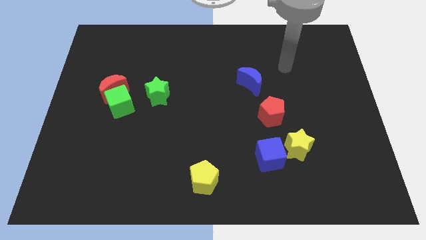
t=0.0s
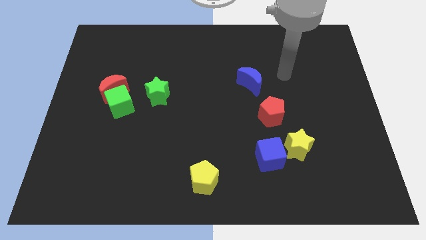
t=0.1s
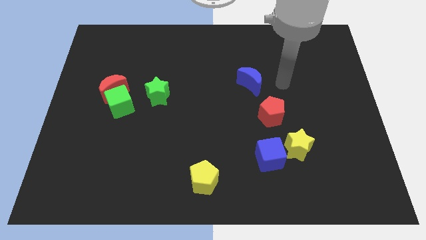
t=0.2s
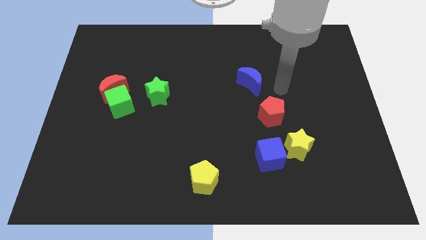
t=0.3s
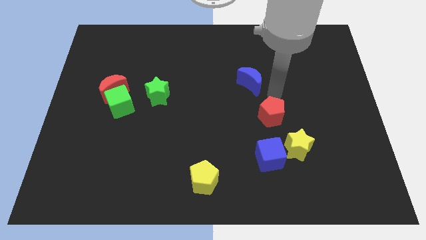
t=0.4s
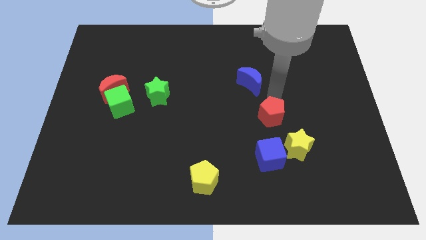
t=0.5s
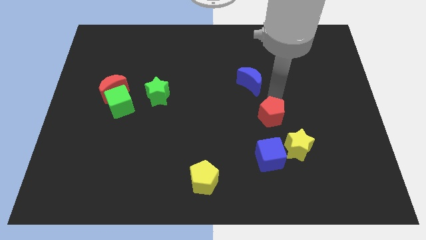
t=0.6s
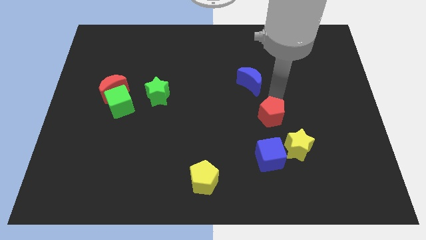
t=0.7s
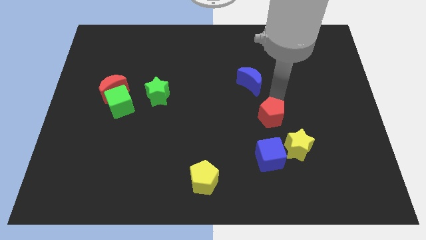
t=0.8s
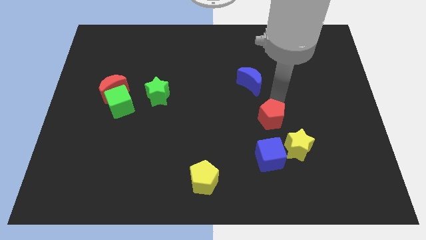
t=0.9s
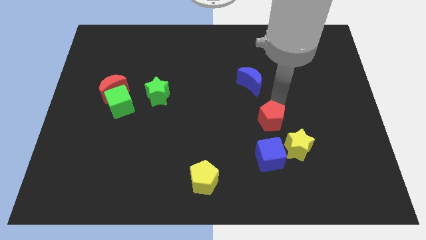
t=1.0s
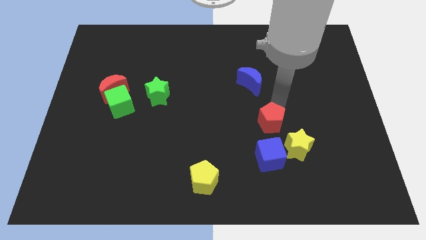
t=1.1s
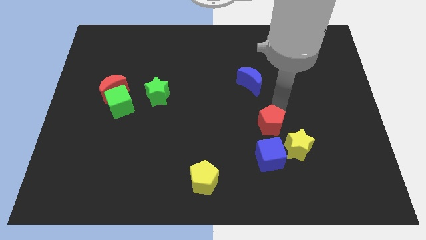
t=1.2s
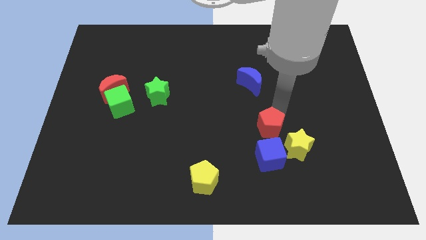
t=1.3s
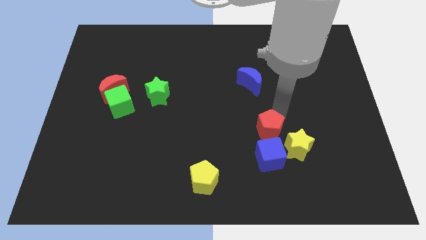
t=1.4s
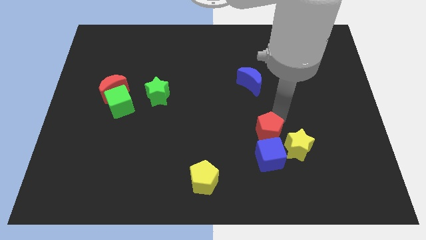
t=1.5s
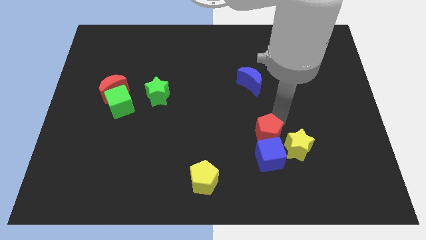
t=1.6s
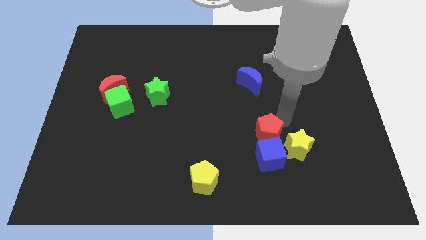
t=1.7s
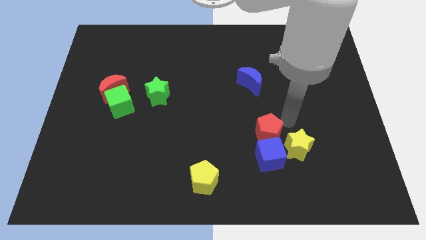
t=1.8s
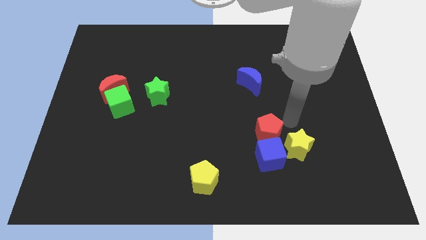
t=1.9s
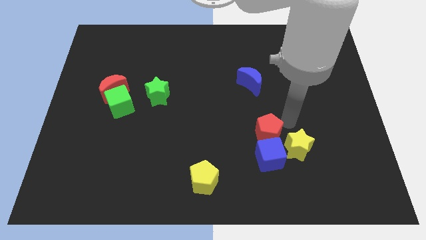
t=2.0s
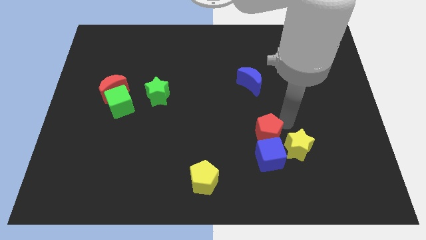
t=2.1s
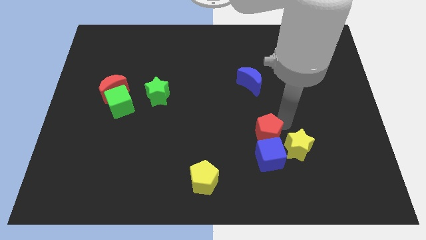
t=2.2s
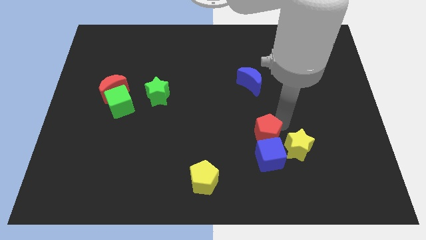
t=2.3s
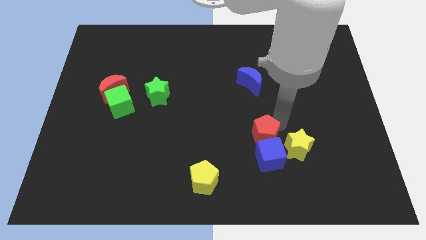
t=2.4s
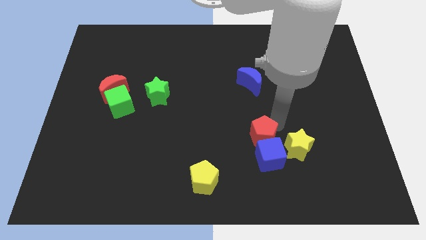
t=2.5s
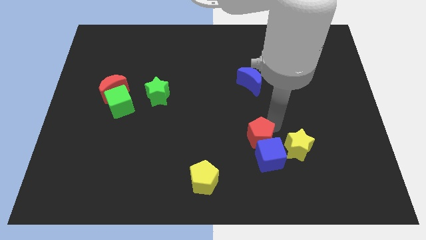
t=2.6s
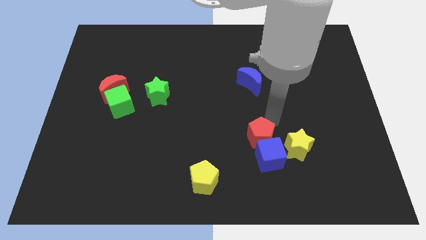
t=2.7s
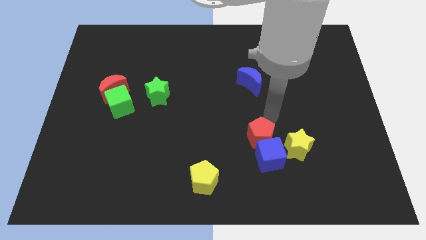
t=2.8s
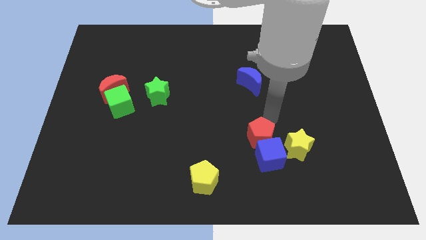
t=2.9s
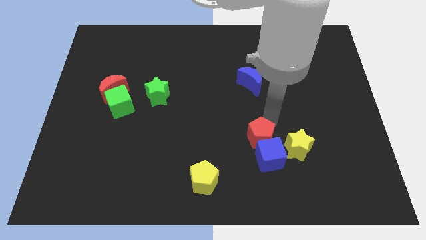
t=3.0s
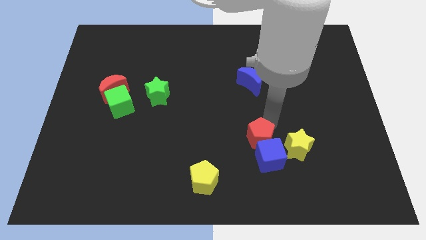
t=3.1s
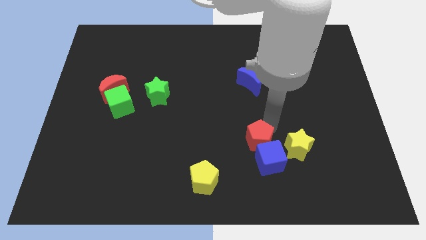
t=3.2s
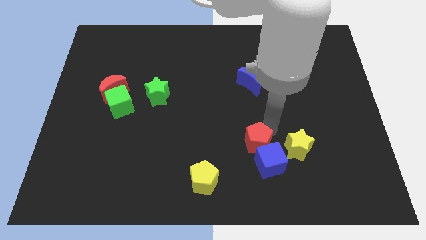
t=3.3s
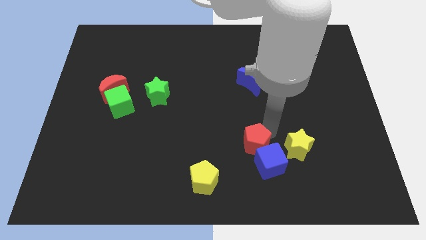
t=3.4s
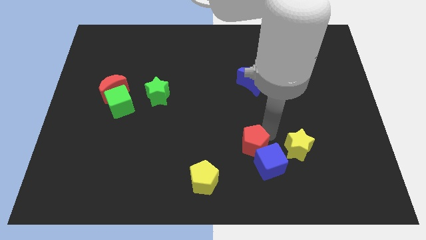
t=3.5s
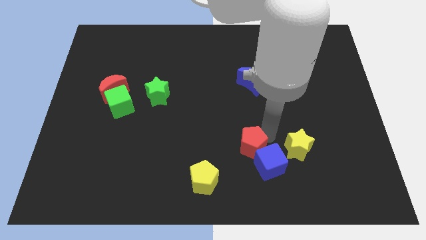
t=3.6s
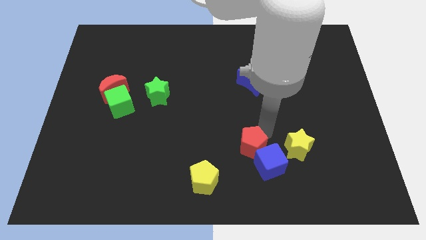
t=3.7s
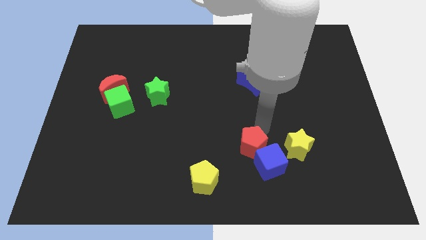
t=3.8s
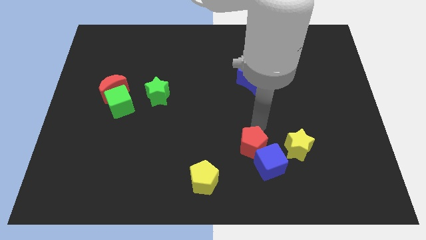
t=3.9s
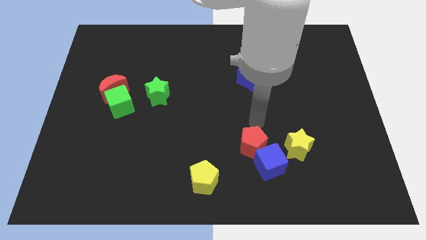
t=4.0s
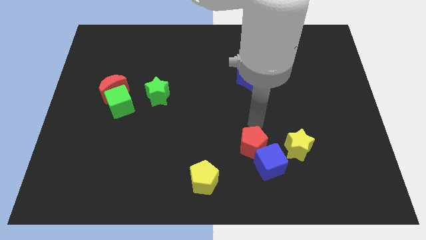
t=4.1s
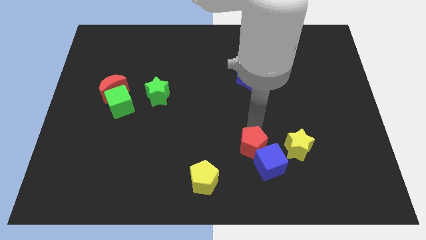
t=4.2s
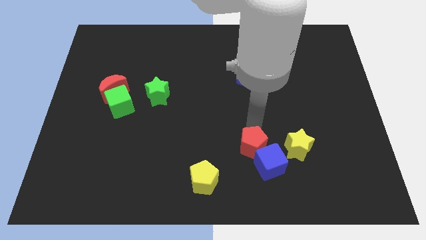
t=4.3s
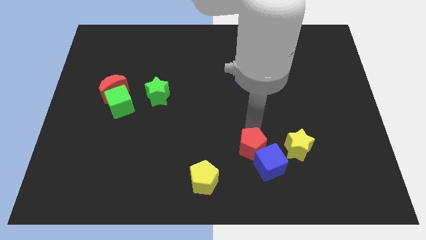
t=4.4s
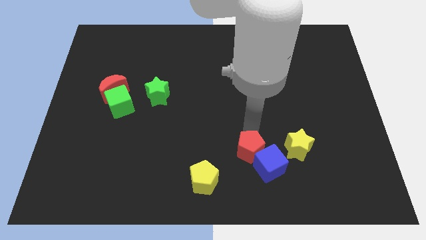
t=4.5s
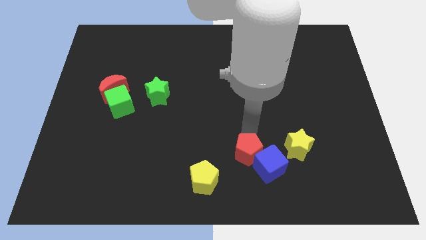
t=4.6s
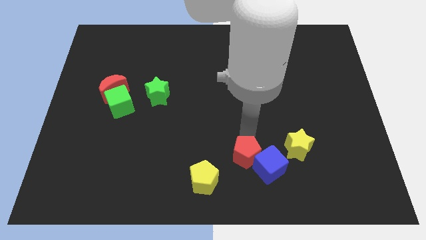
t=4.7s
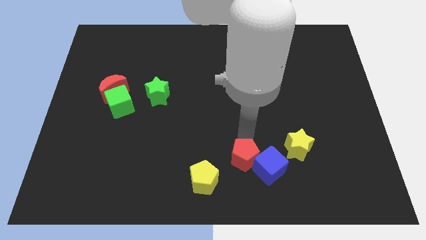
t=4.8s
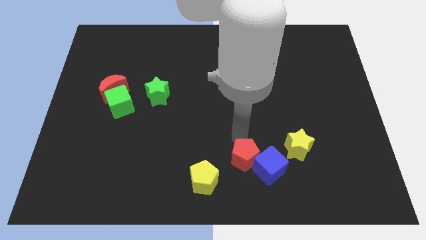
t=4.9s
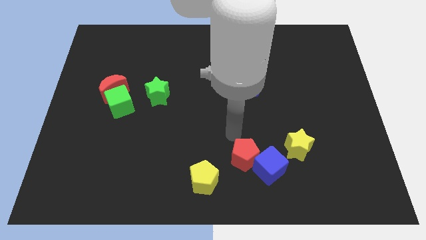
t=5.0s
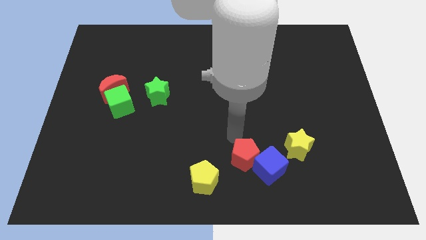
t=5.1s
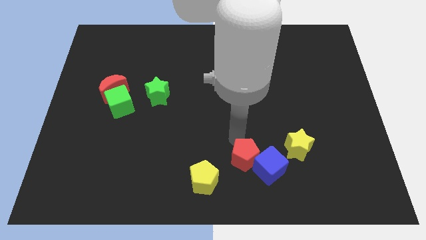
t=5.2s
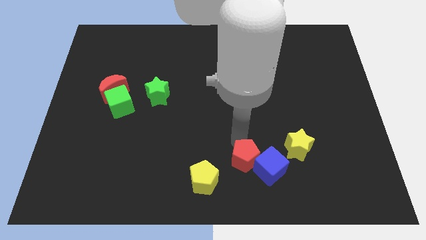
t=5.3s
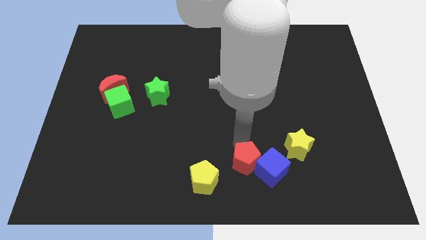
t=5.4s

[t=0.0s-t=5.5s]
slide the red pentagon to the right side of the yellow pentagon
